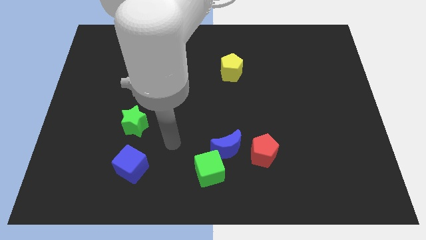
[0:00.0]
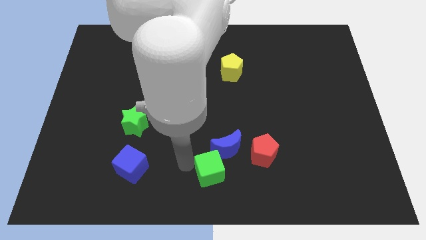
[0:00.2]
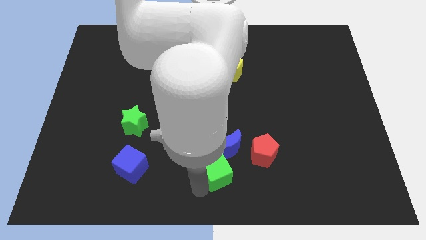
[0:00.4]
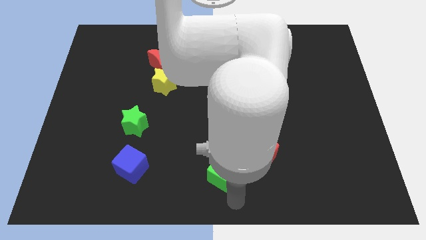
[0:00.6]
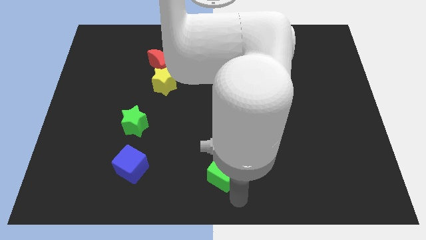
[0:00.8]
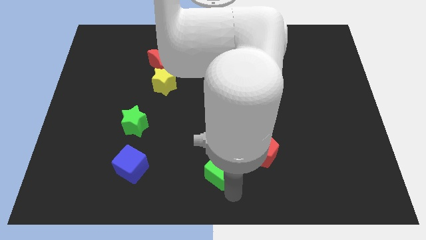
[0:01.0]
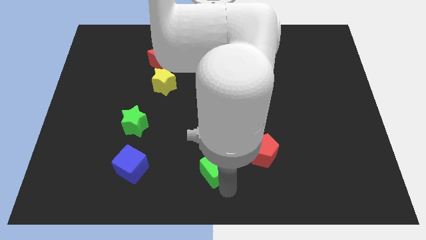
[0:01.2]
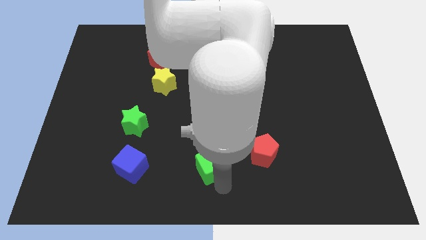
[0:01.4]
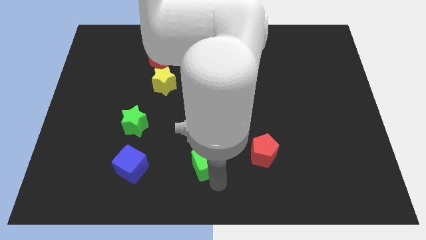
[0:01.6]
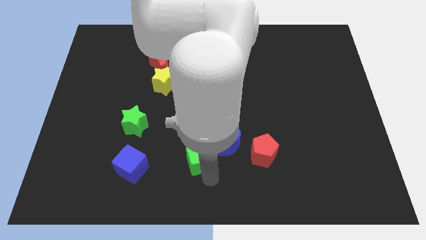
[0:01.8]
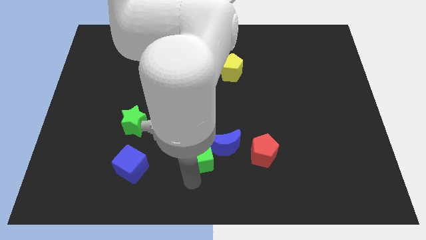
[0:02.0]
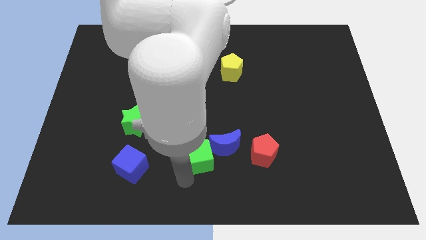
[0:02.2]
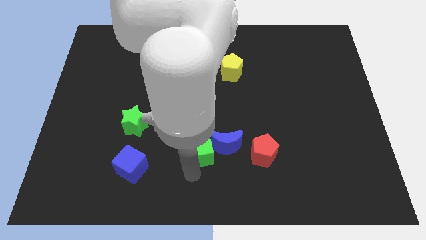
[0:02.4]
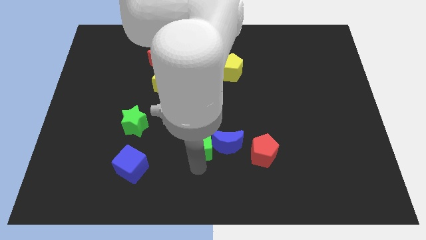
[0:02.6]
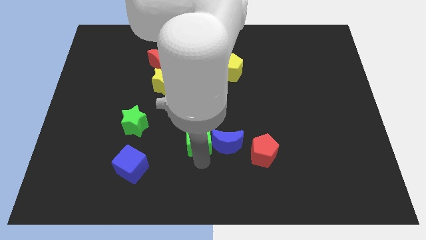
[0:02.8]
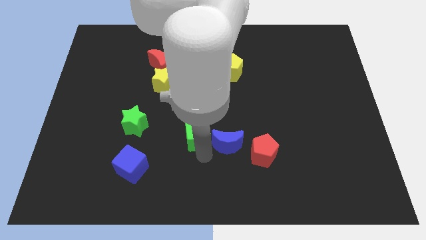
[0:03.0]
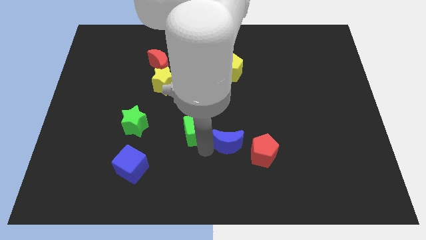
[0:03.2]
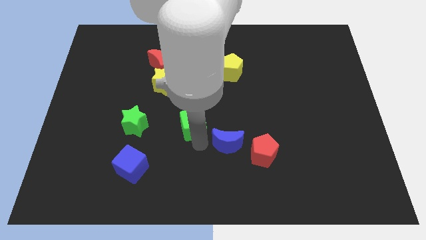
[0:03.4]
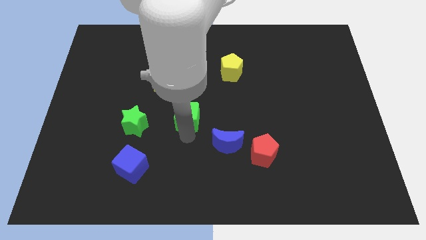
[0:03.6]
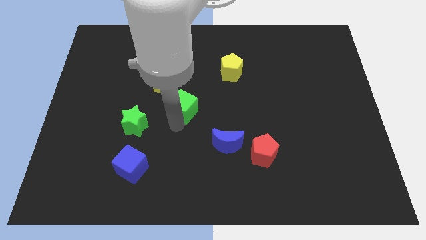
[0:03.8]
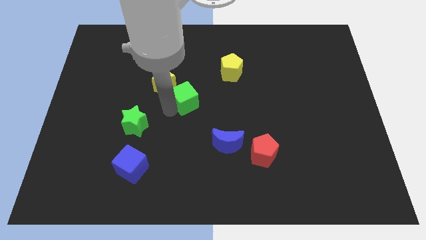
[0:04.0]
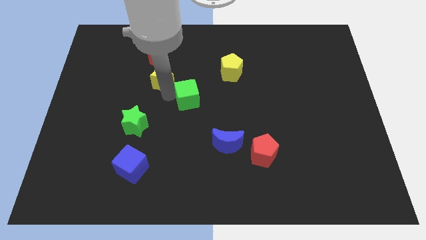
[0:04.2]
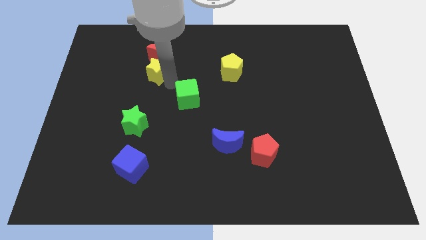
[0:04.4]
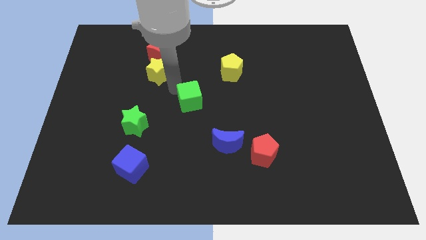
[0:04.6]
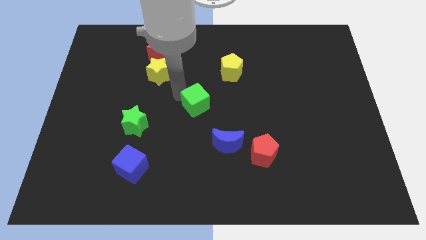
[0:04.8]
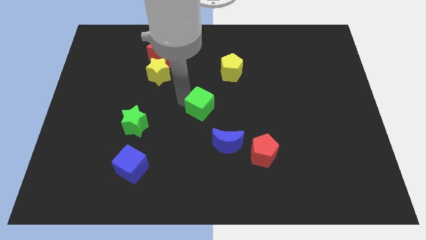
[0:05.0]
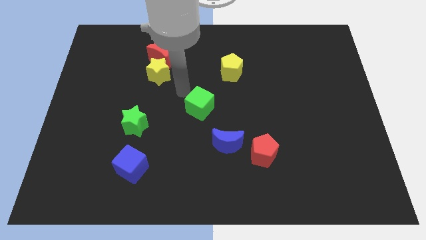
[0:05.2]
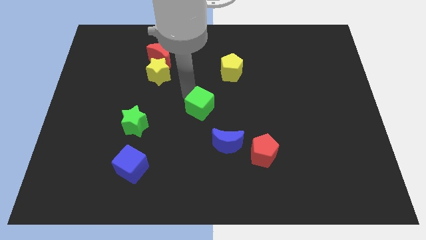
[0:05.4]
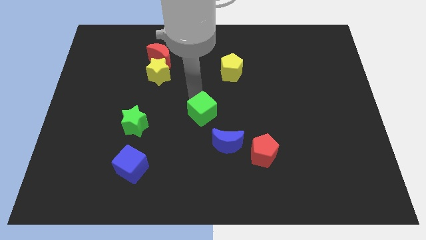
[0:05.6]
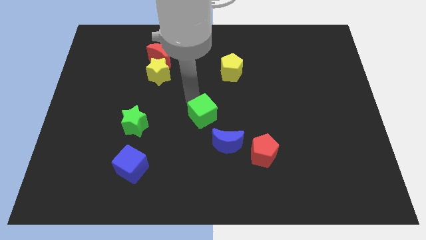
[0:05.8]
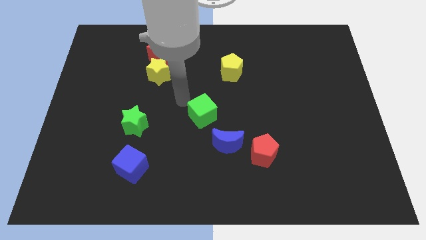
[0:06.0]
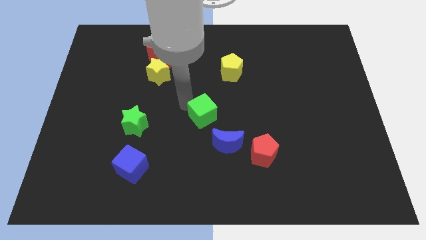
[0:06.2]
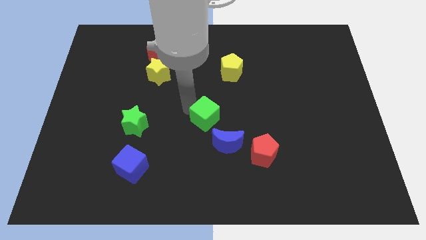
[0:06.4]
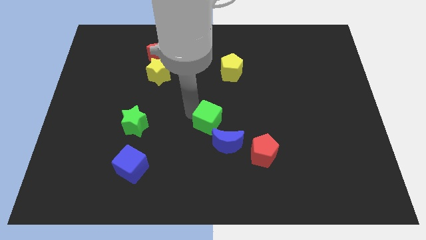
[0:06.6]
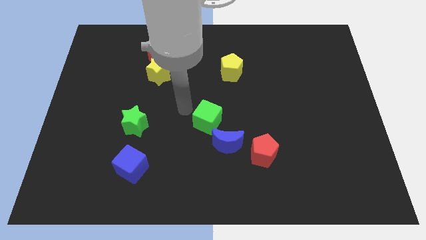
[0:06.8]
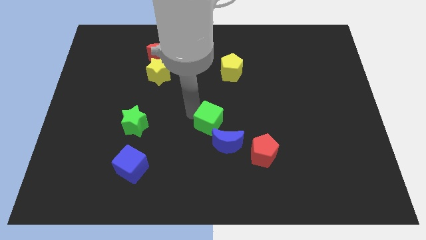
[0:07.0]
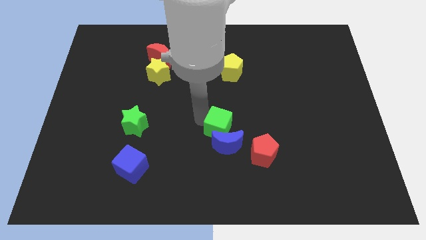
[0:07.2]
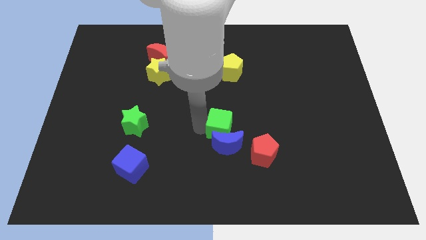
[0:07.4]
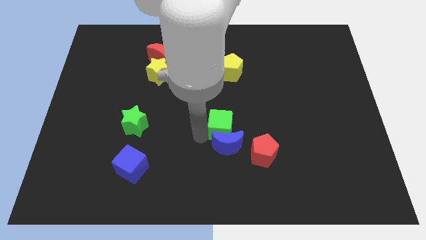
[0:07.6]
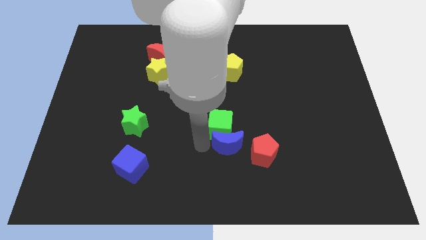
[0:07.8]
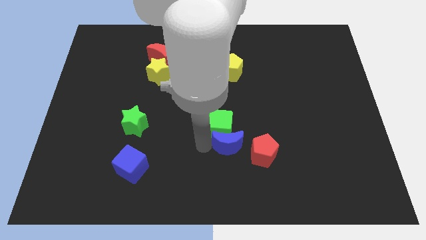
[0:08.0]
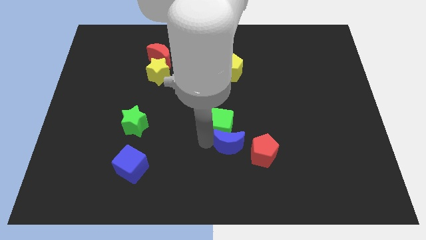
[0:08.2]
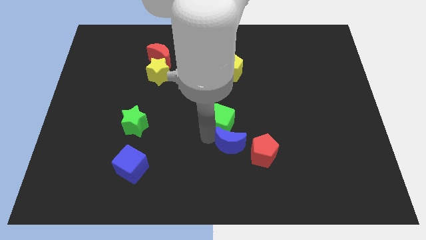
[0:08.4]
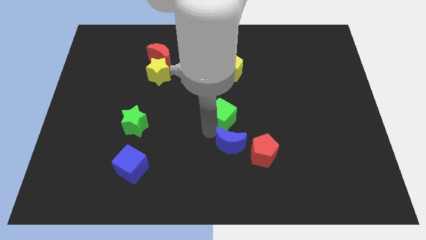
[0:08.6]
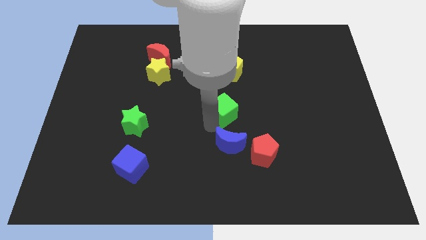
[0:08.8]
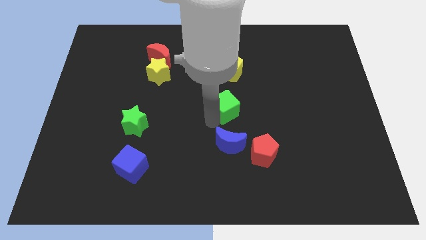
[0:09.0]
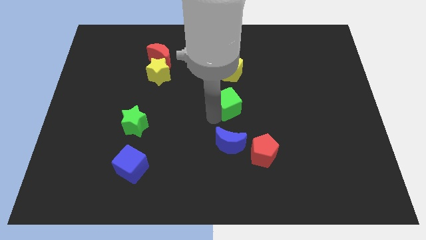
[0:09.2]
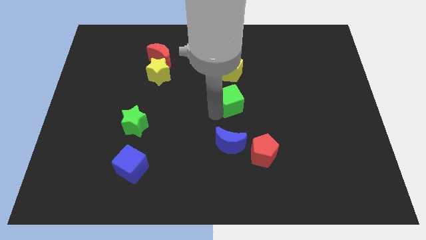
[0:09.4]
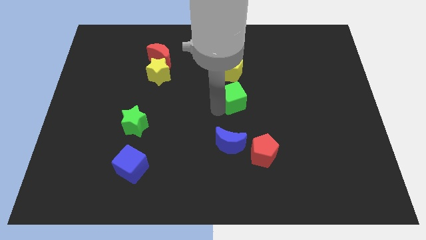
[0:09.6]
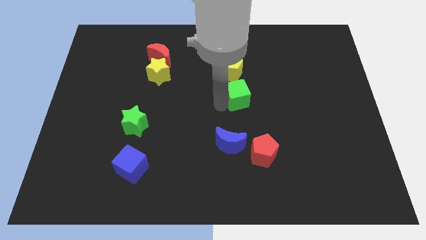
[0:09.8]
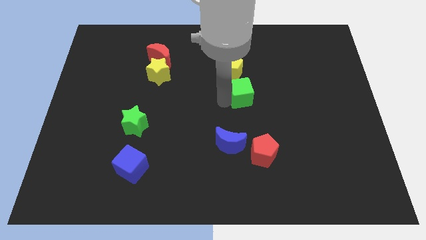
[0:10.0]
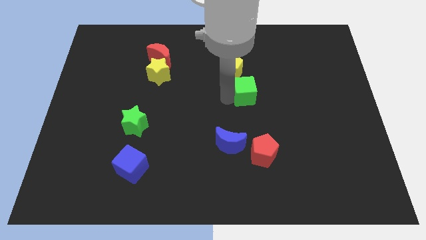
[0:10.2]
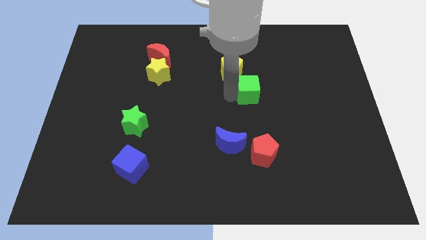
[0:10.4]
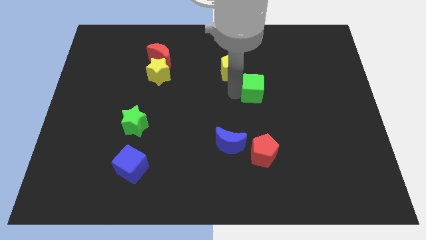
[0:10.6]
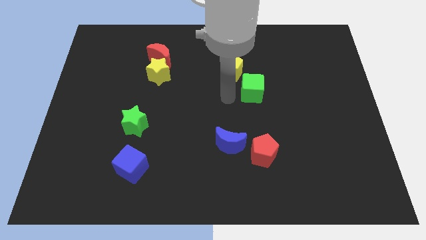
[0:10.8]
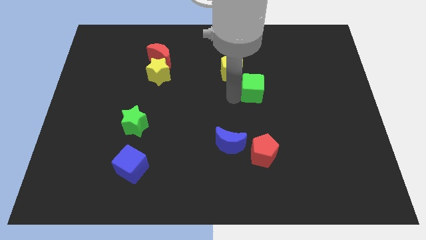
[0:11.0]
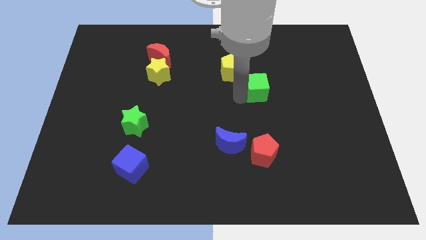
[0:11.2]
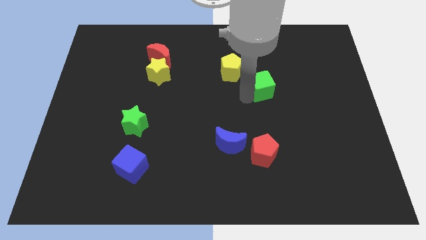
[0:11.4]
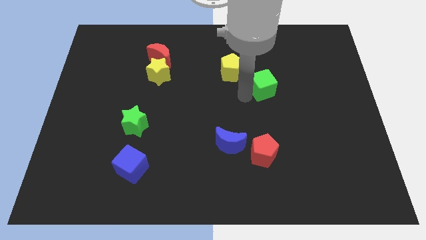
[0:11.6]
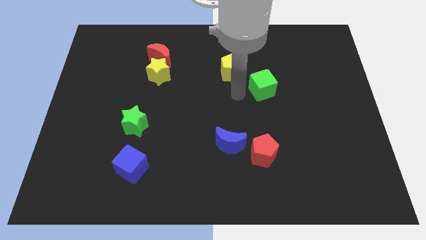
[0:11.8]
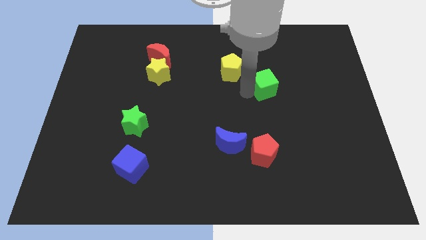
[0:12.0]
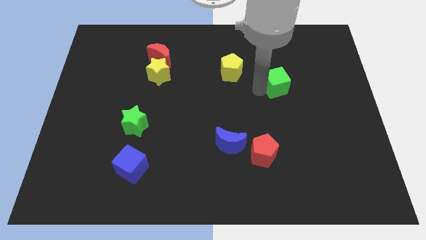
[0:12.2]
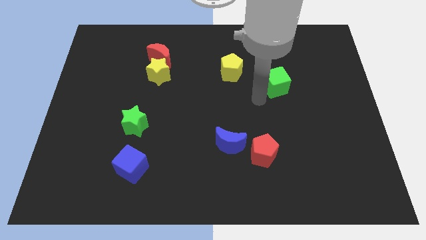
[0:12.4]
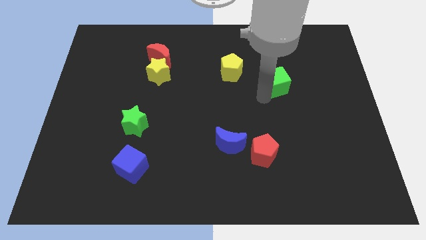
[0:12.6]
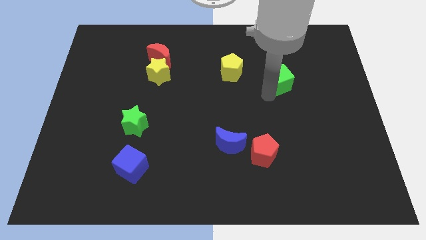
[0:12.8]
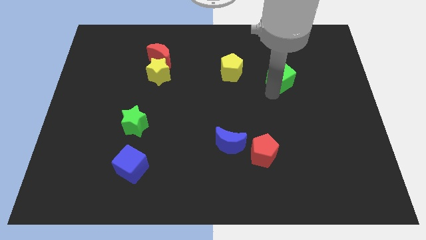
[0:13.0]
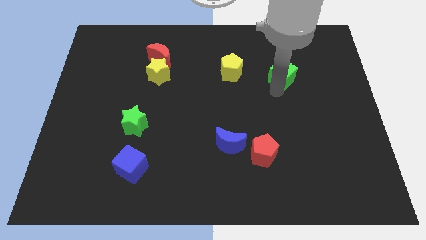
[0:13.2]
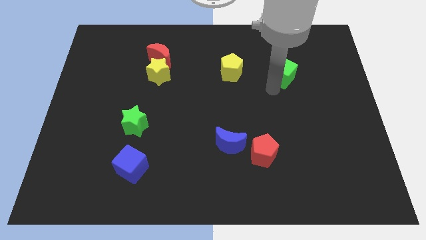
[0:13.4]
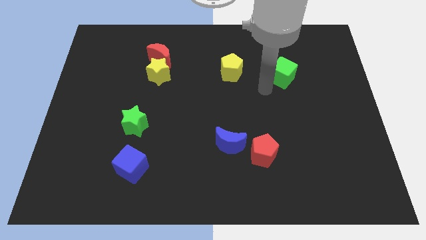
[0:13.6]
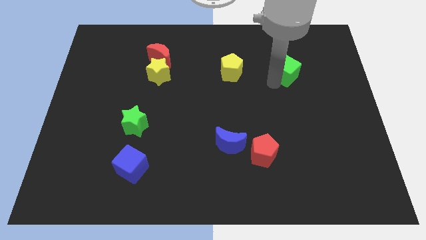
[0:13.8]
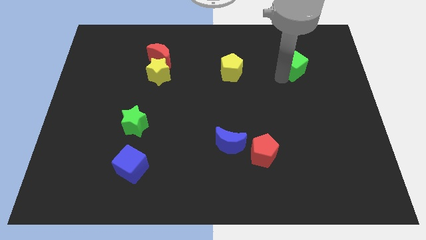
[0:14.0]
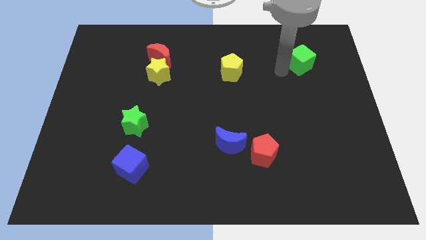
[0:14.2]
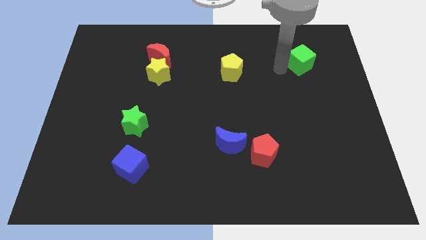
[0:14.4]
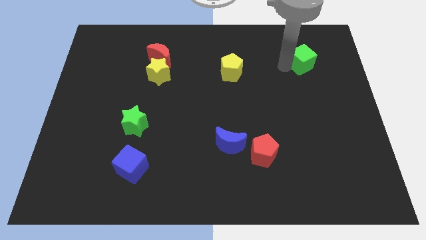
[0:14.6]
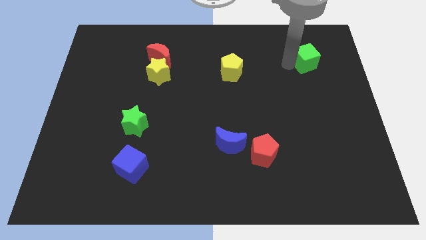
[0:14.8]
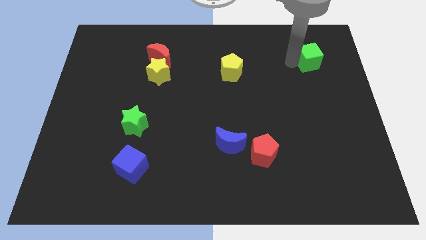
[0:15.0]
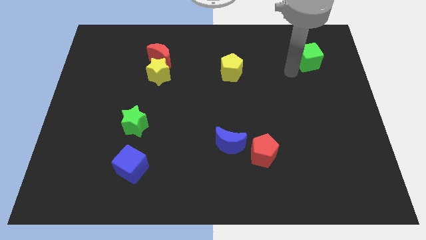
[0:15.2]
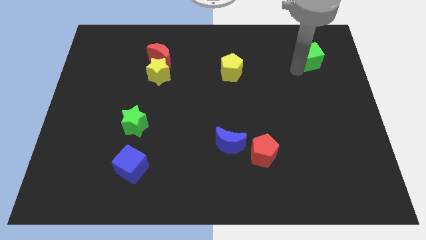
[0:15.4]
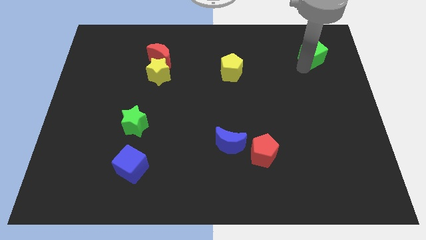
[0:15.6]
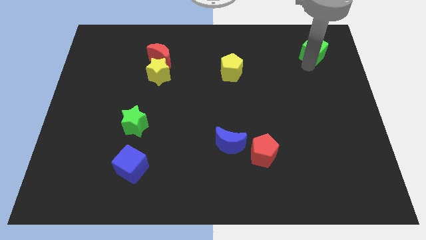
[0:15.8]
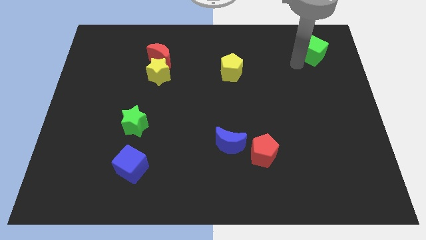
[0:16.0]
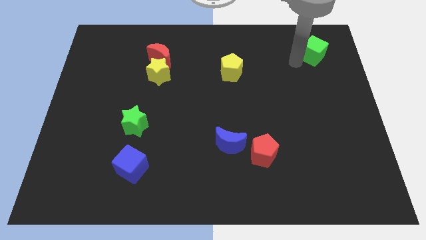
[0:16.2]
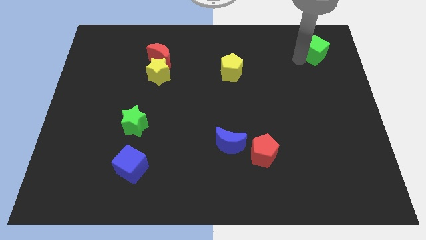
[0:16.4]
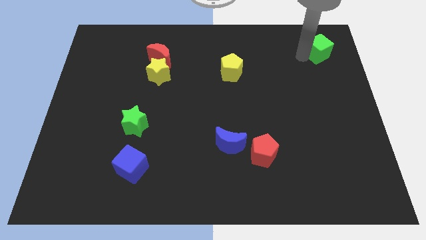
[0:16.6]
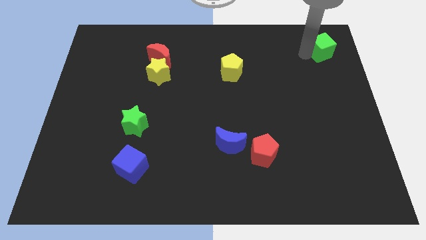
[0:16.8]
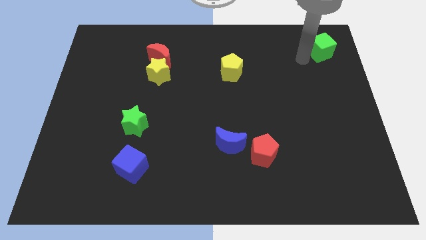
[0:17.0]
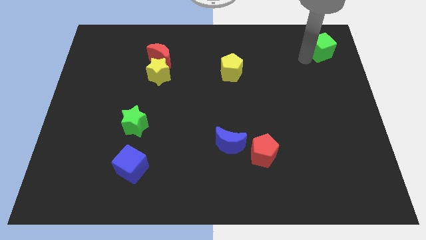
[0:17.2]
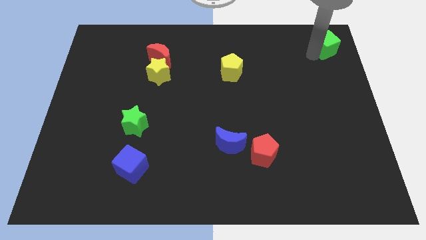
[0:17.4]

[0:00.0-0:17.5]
push the green cube to the top right
